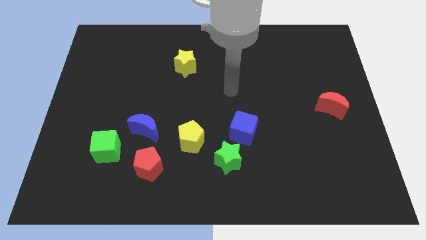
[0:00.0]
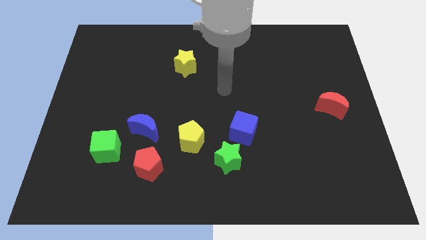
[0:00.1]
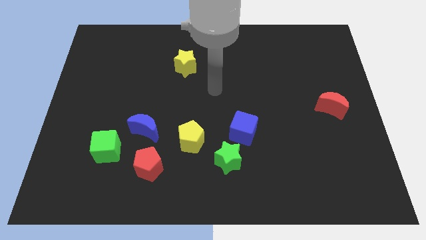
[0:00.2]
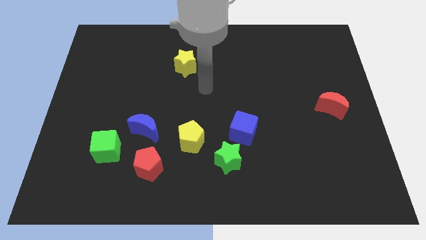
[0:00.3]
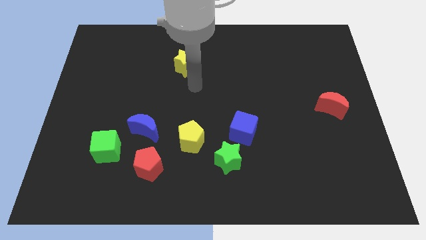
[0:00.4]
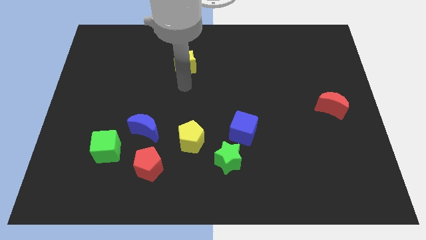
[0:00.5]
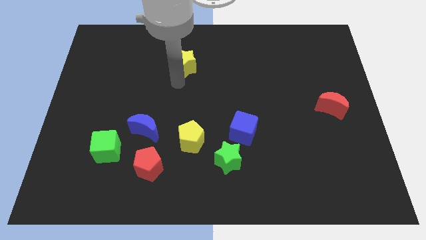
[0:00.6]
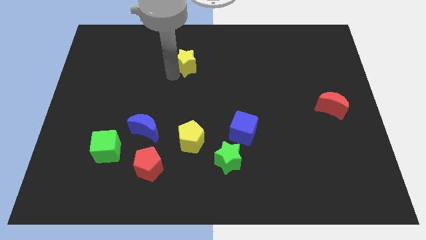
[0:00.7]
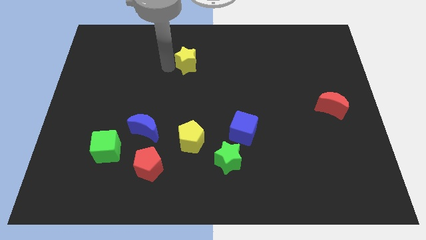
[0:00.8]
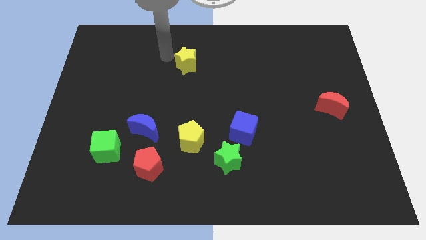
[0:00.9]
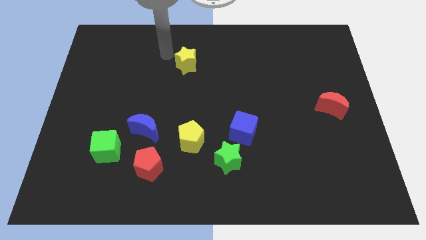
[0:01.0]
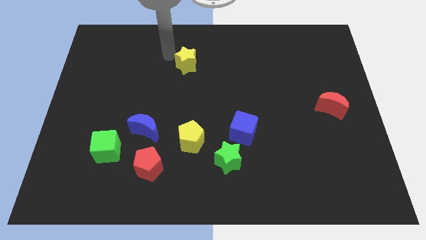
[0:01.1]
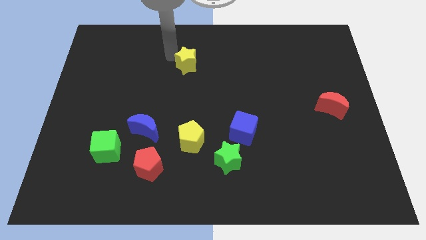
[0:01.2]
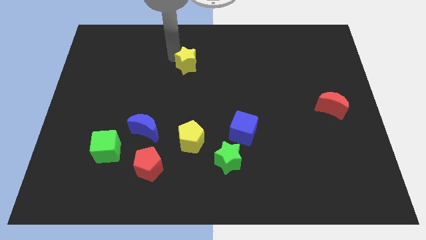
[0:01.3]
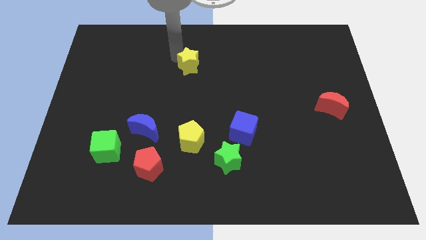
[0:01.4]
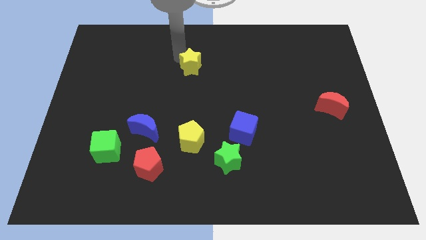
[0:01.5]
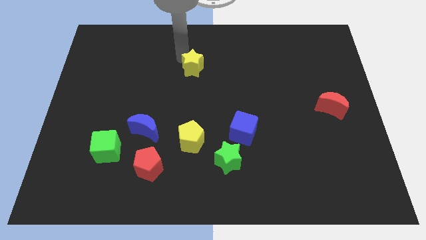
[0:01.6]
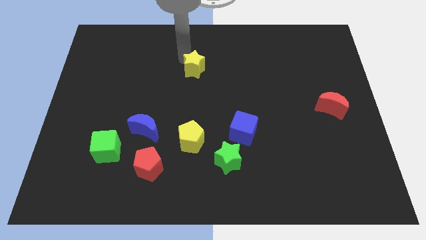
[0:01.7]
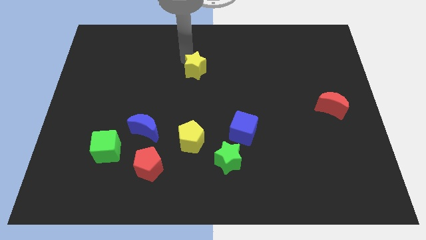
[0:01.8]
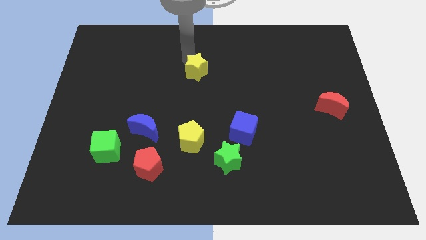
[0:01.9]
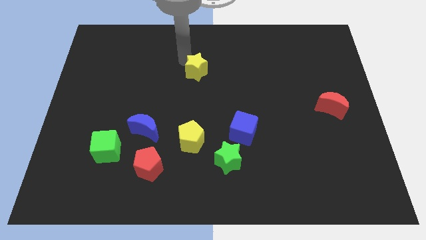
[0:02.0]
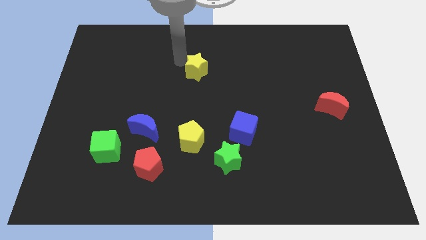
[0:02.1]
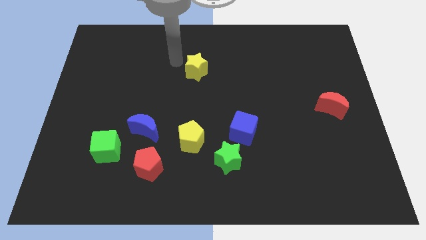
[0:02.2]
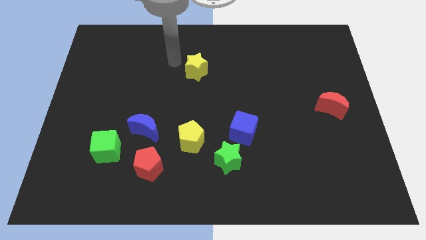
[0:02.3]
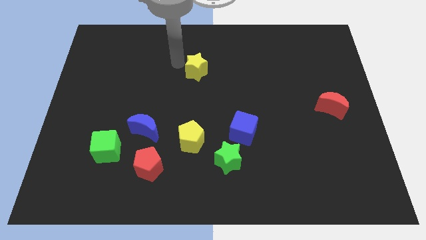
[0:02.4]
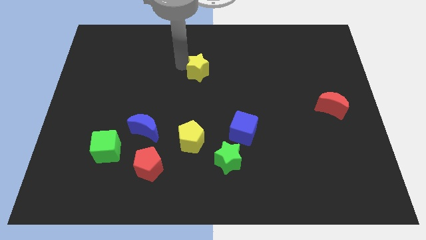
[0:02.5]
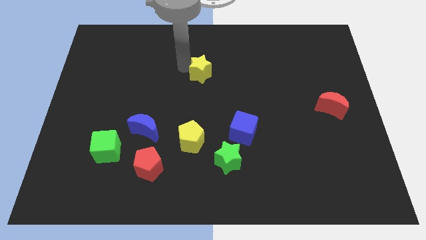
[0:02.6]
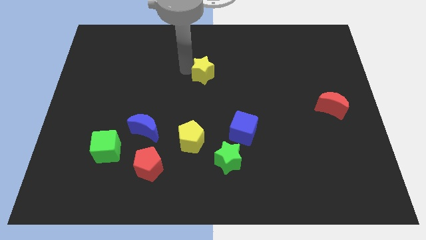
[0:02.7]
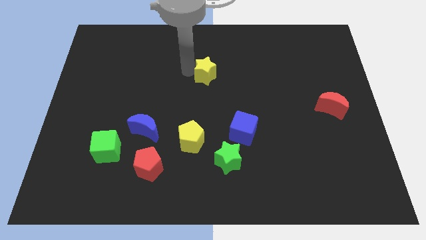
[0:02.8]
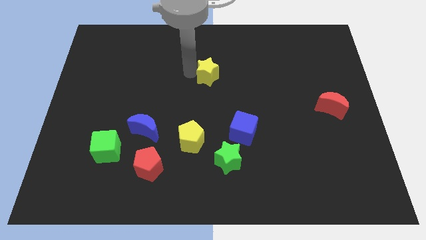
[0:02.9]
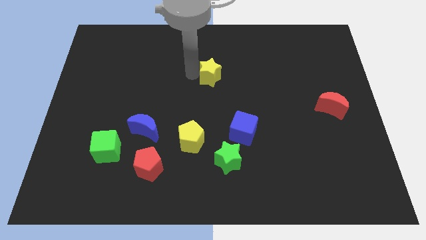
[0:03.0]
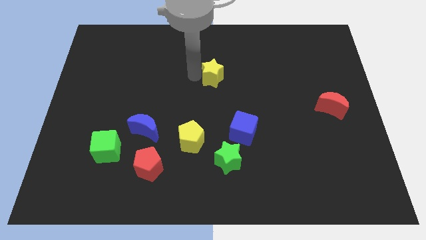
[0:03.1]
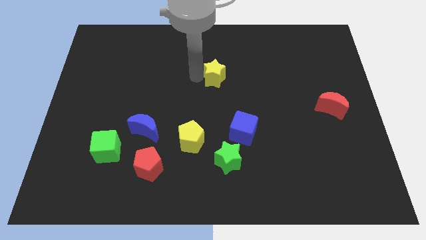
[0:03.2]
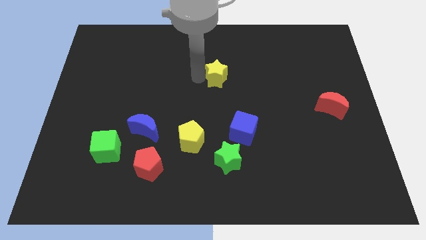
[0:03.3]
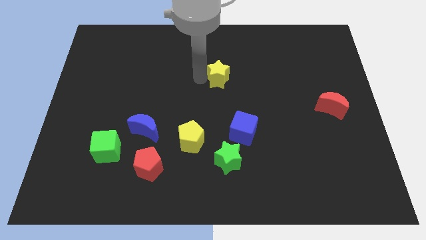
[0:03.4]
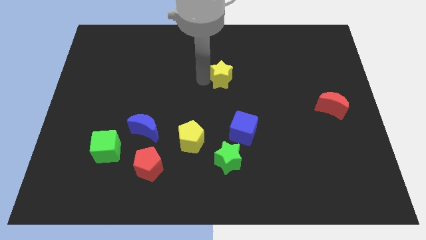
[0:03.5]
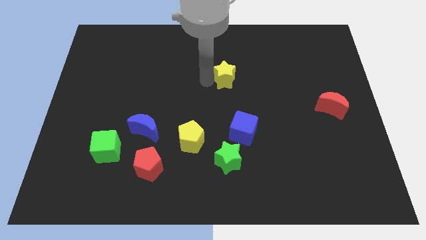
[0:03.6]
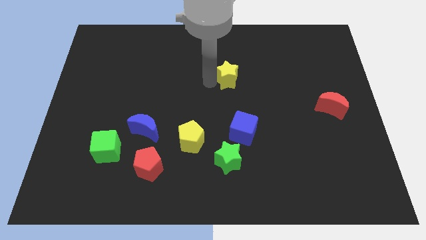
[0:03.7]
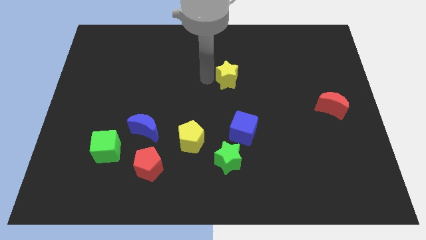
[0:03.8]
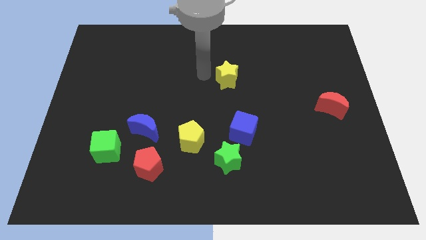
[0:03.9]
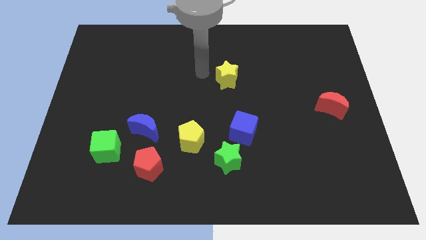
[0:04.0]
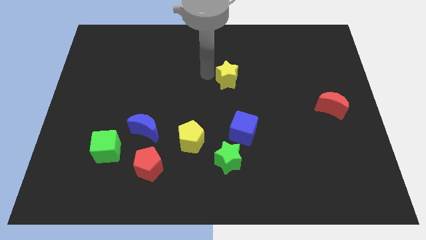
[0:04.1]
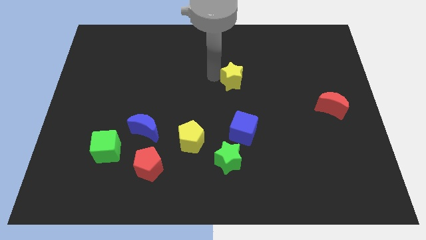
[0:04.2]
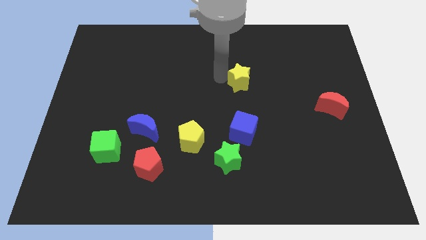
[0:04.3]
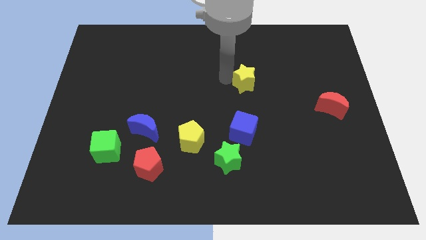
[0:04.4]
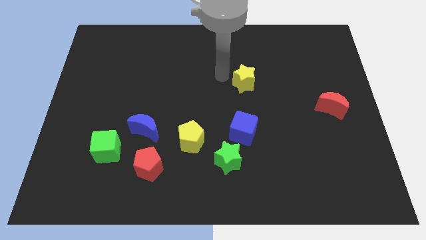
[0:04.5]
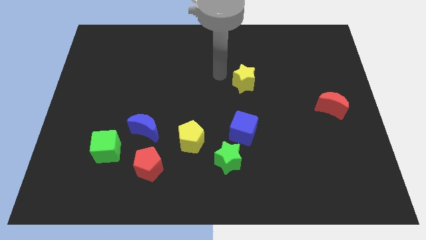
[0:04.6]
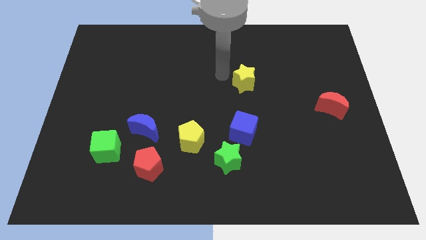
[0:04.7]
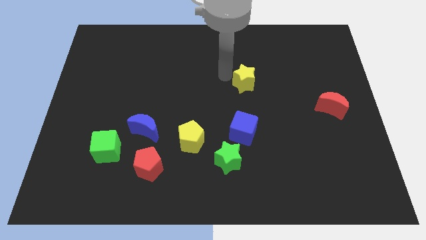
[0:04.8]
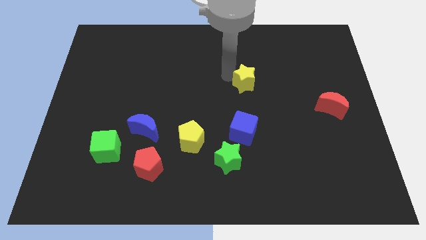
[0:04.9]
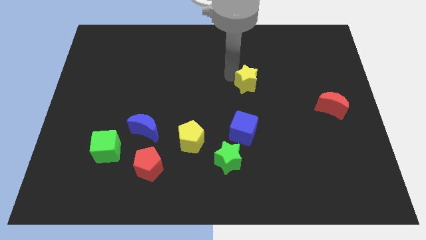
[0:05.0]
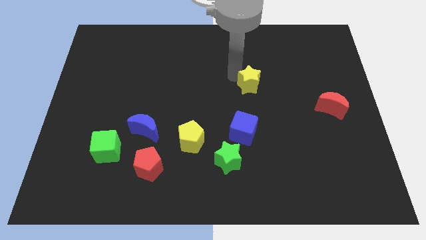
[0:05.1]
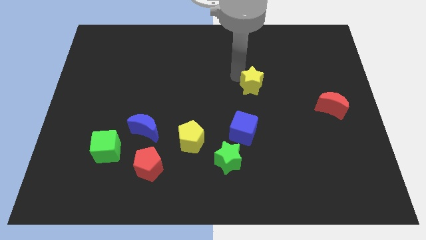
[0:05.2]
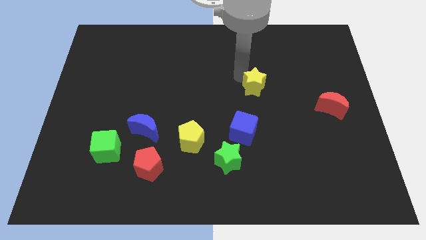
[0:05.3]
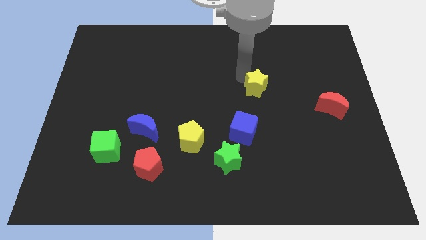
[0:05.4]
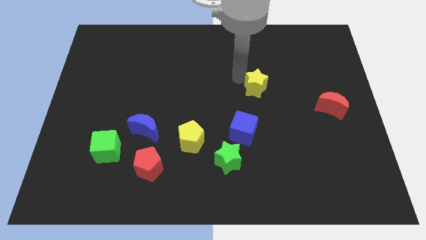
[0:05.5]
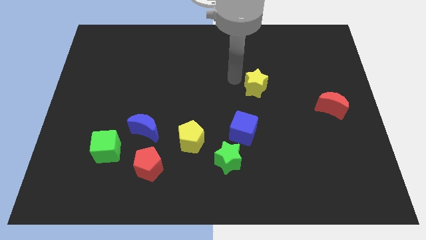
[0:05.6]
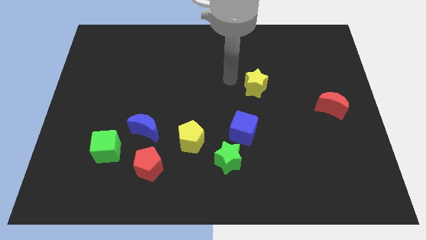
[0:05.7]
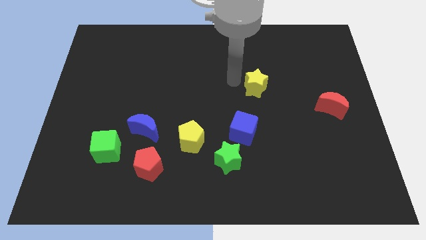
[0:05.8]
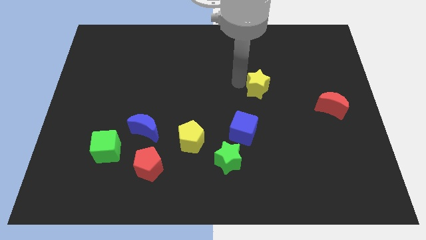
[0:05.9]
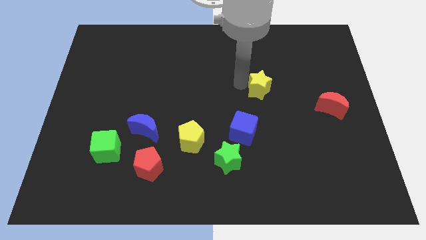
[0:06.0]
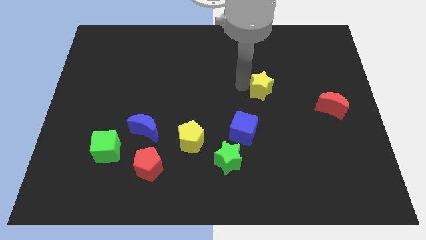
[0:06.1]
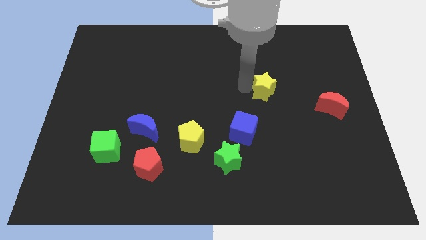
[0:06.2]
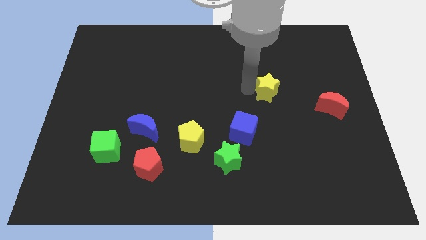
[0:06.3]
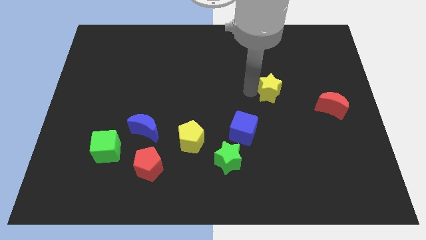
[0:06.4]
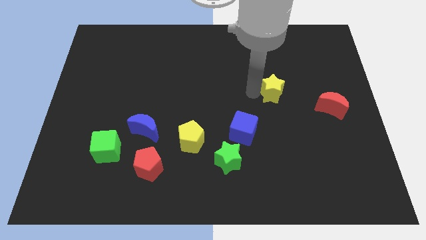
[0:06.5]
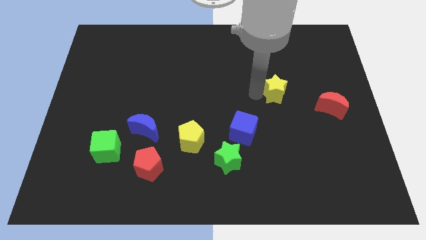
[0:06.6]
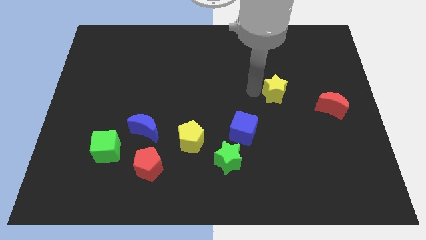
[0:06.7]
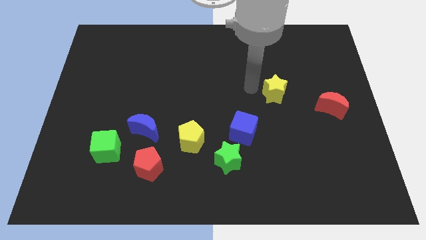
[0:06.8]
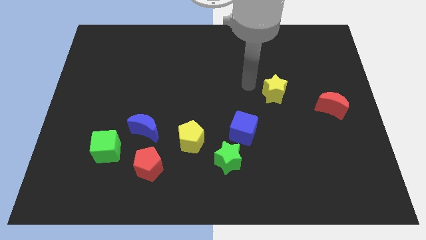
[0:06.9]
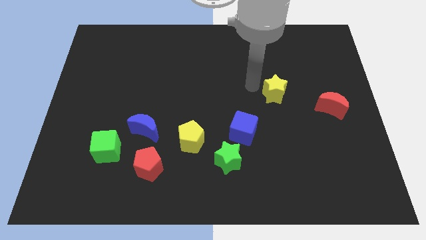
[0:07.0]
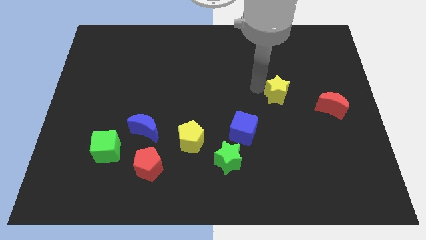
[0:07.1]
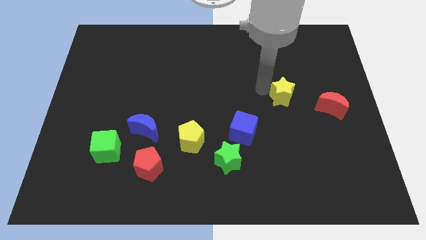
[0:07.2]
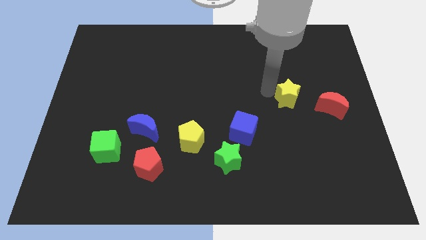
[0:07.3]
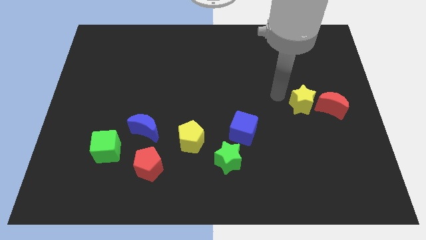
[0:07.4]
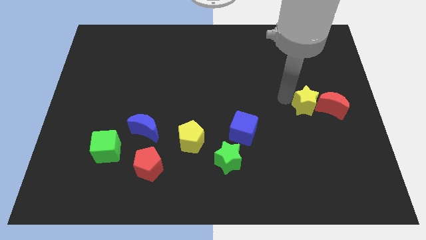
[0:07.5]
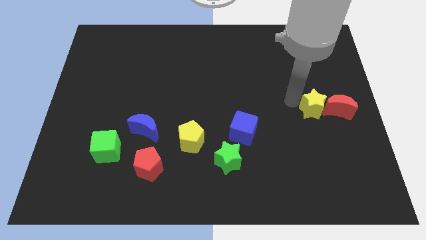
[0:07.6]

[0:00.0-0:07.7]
move the yellow star towards the red moon
